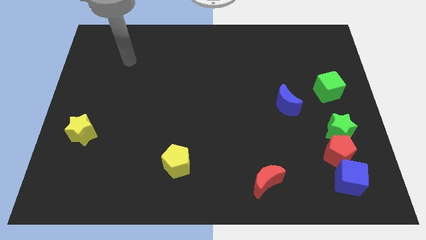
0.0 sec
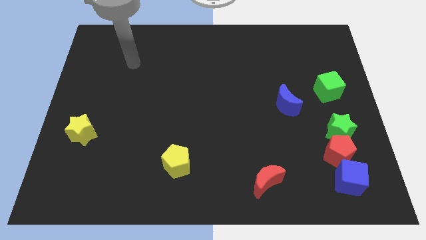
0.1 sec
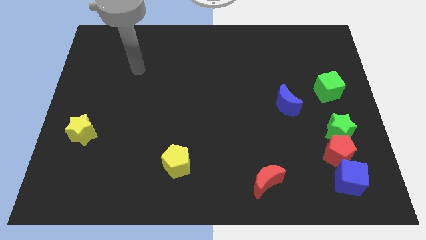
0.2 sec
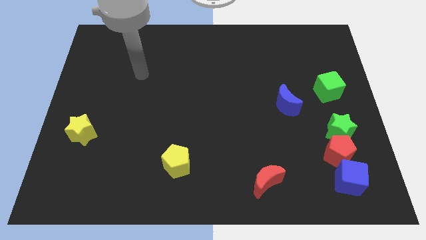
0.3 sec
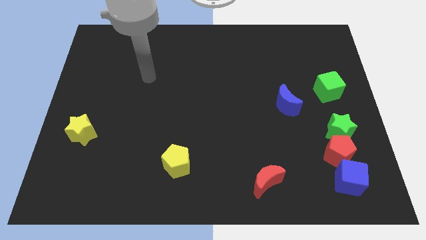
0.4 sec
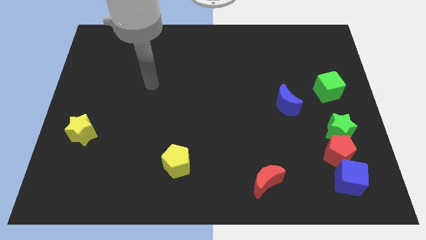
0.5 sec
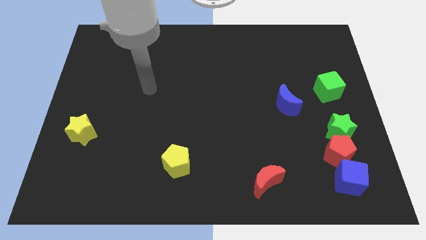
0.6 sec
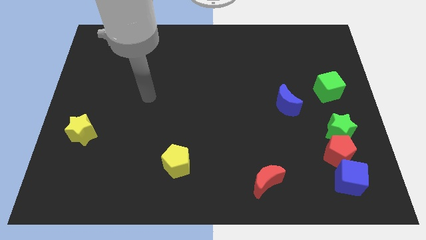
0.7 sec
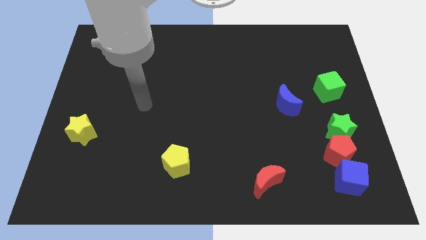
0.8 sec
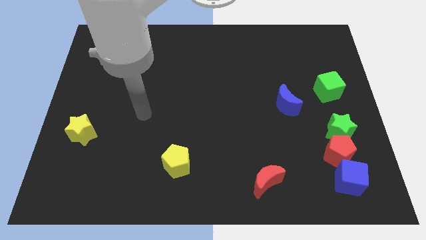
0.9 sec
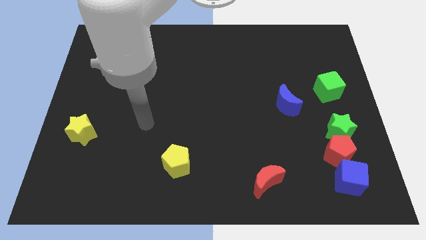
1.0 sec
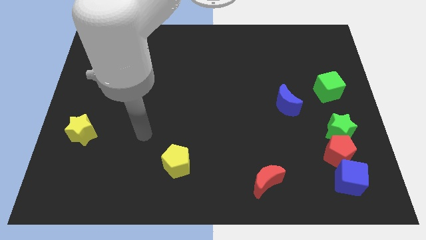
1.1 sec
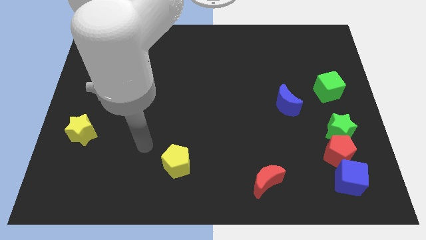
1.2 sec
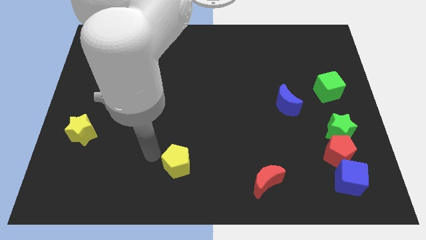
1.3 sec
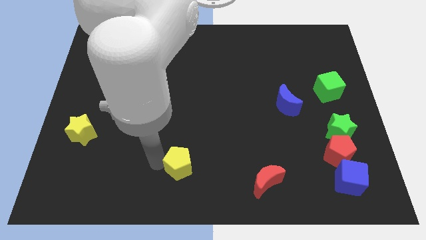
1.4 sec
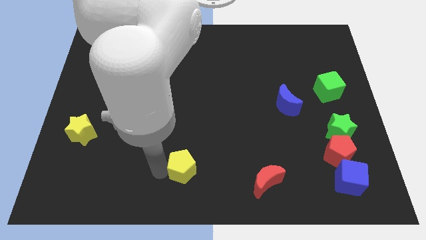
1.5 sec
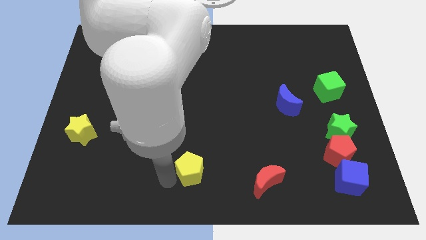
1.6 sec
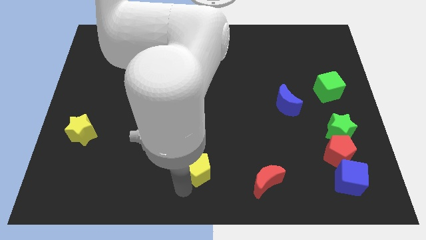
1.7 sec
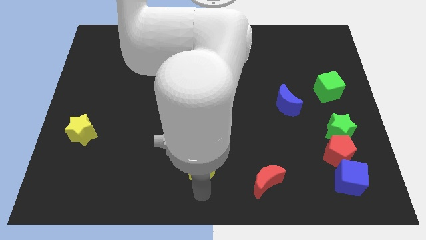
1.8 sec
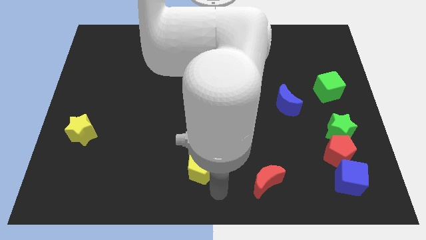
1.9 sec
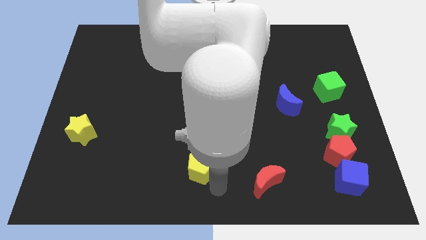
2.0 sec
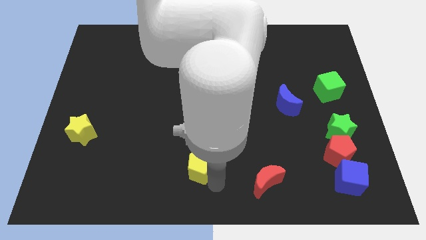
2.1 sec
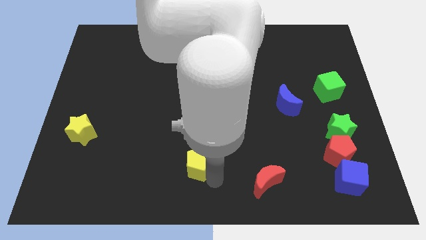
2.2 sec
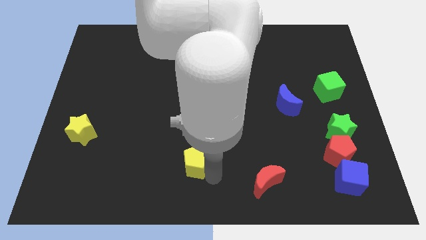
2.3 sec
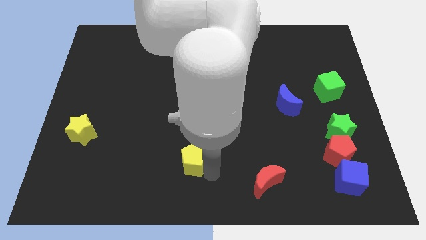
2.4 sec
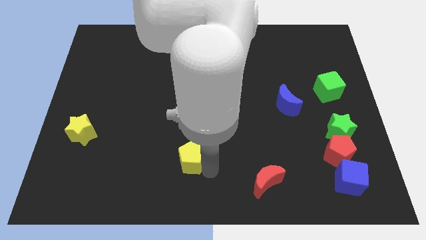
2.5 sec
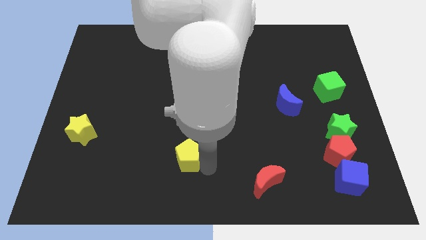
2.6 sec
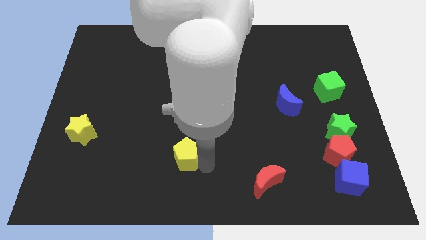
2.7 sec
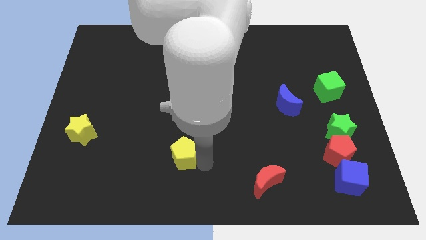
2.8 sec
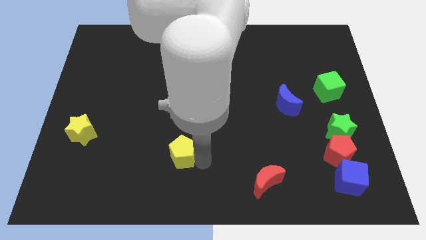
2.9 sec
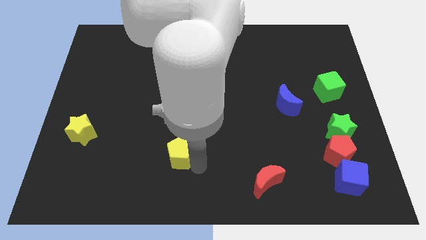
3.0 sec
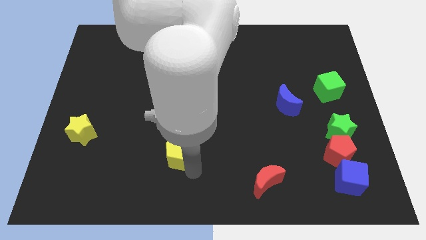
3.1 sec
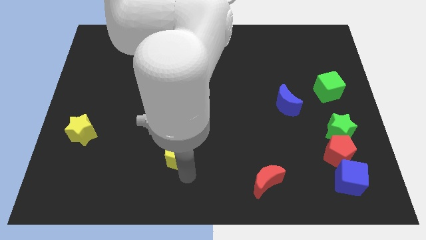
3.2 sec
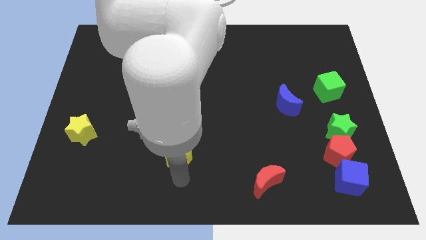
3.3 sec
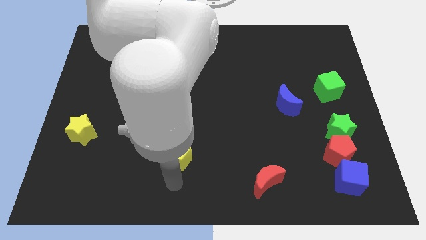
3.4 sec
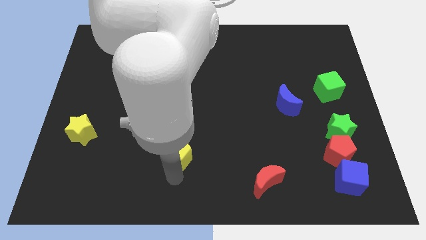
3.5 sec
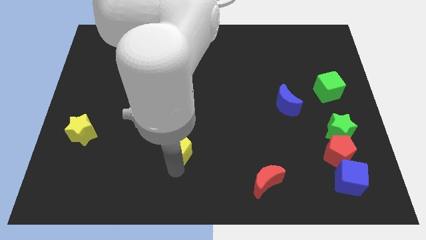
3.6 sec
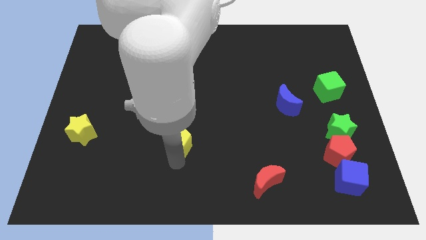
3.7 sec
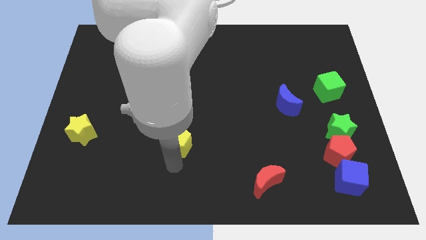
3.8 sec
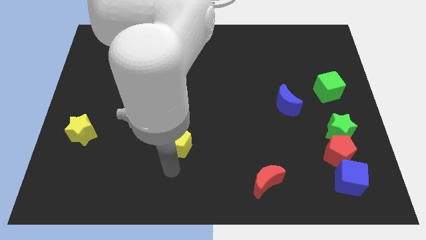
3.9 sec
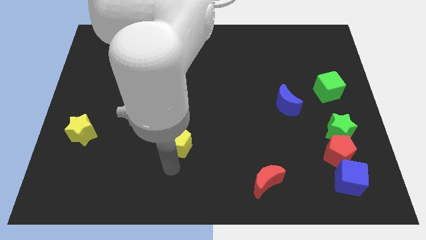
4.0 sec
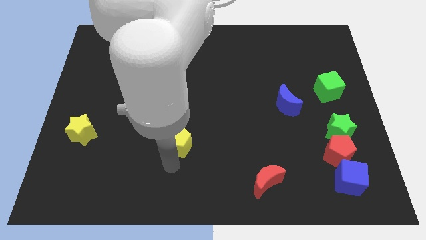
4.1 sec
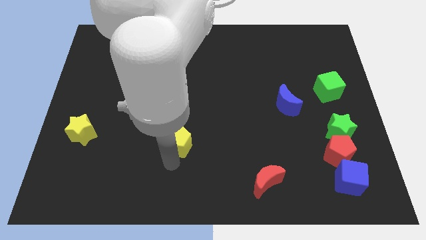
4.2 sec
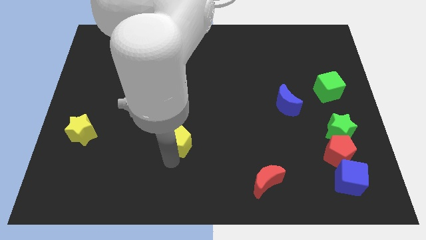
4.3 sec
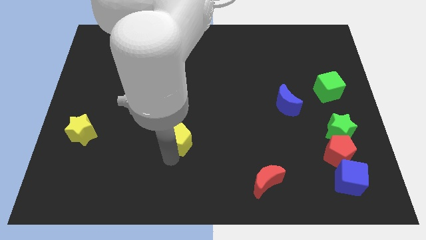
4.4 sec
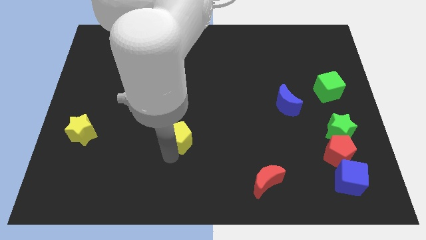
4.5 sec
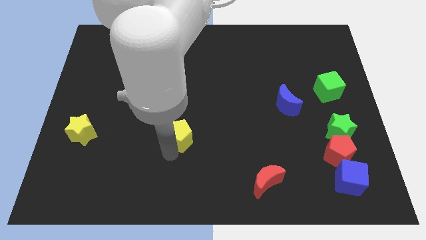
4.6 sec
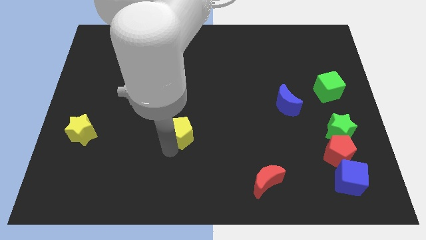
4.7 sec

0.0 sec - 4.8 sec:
push the yellow pentagon a bit upwards

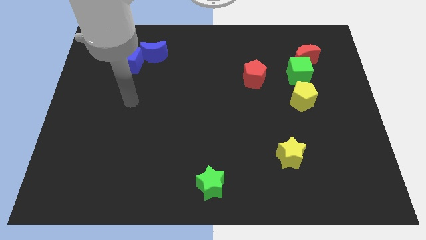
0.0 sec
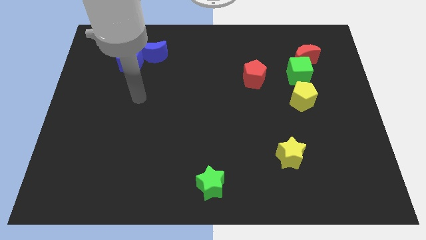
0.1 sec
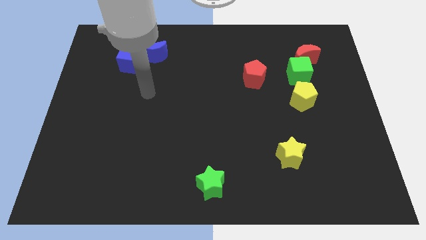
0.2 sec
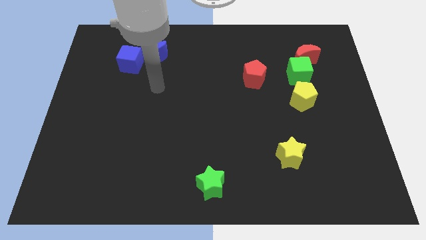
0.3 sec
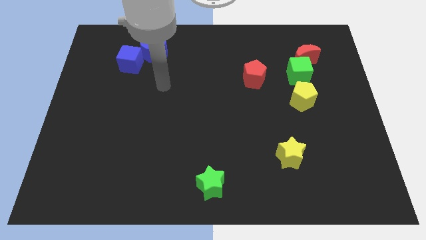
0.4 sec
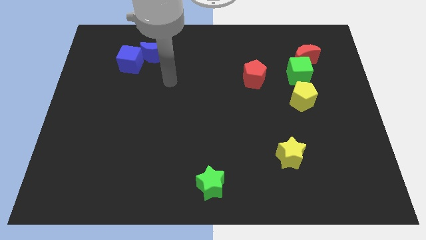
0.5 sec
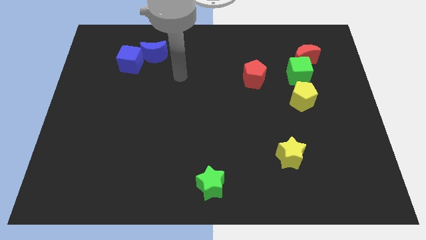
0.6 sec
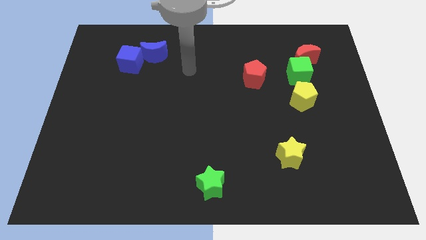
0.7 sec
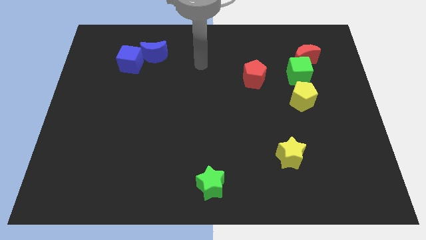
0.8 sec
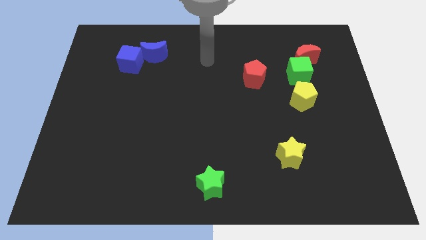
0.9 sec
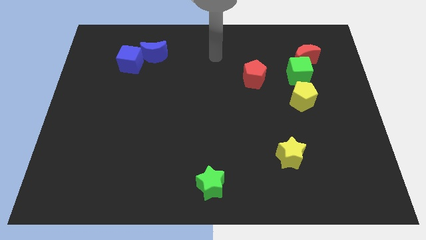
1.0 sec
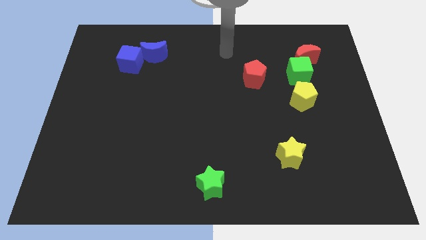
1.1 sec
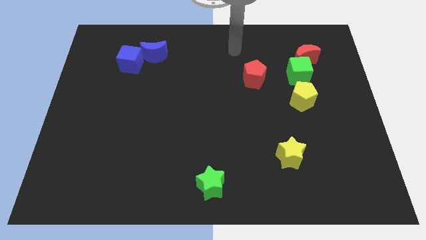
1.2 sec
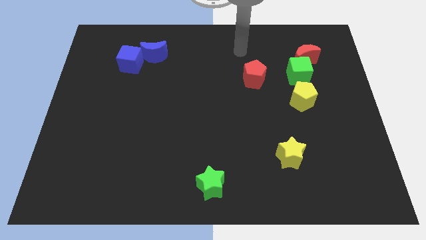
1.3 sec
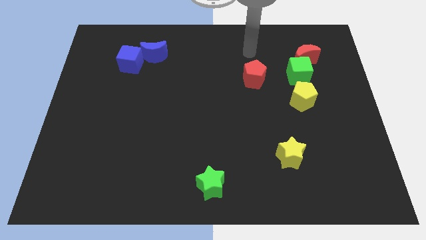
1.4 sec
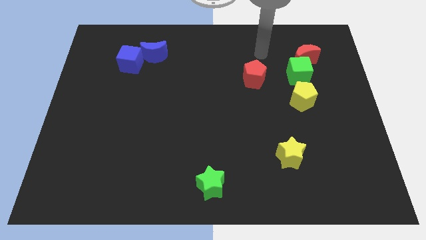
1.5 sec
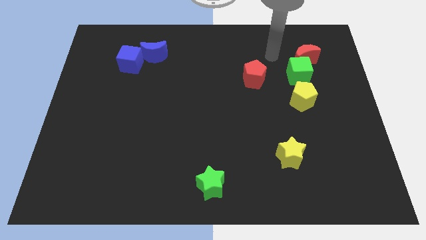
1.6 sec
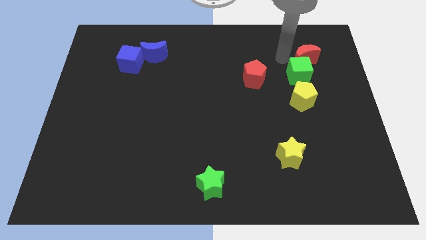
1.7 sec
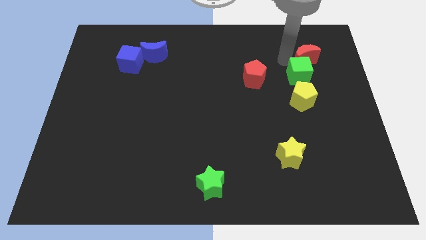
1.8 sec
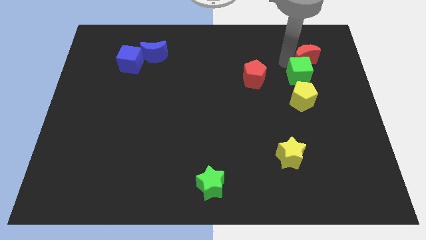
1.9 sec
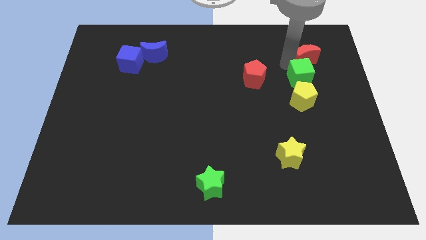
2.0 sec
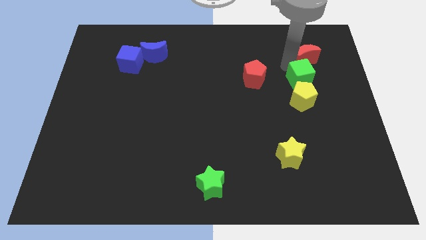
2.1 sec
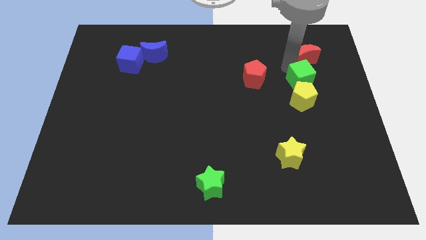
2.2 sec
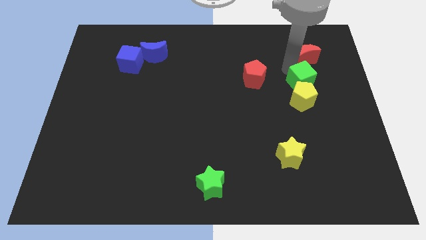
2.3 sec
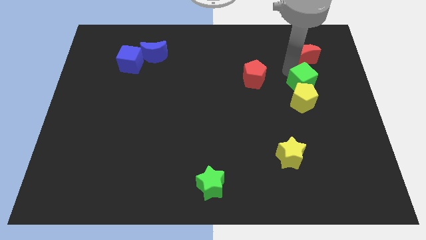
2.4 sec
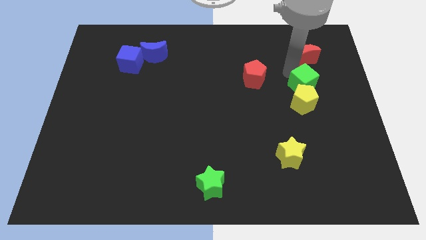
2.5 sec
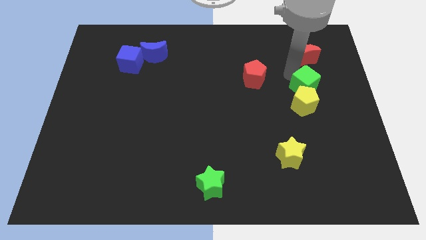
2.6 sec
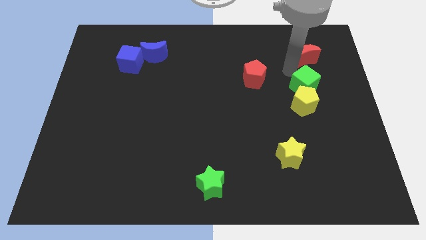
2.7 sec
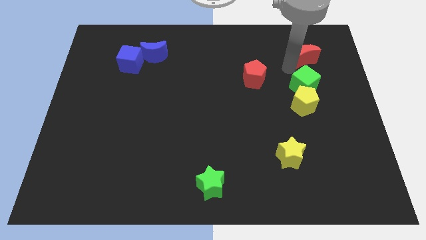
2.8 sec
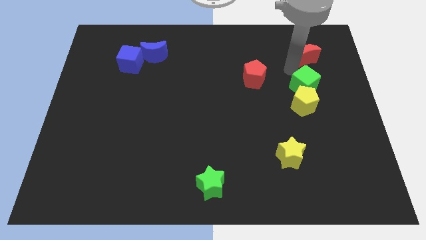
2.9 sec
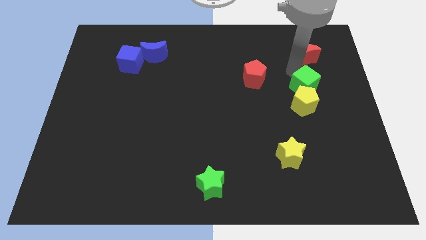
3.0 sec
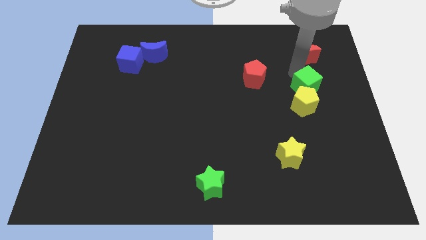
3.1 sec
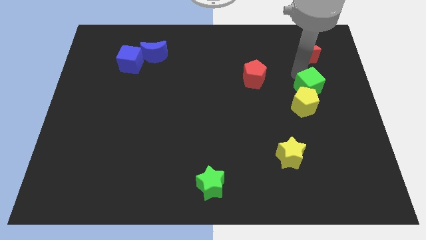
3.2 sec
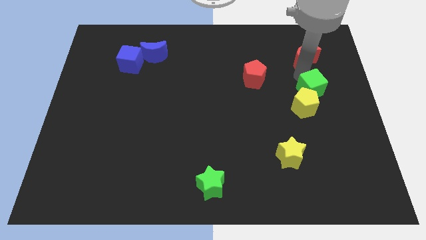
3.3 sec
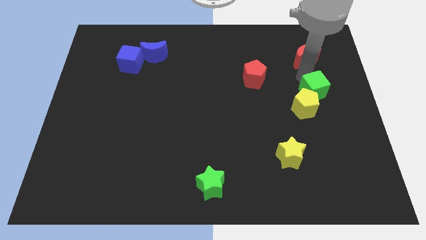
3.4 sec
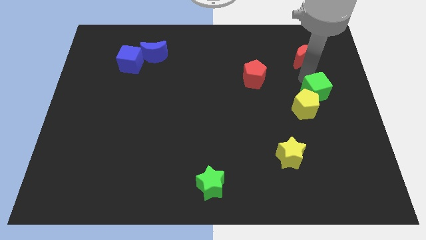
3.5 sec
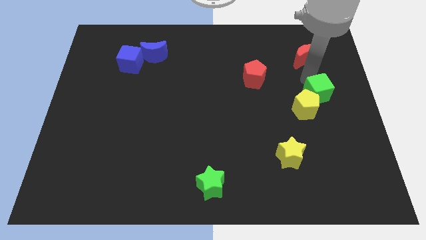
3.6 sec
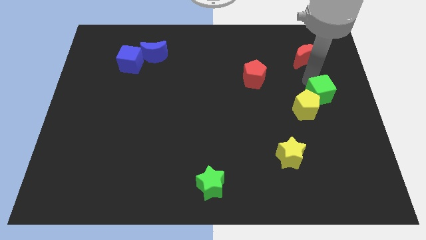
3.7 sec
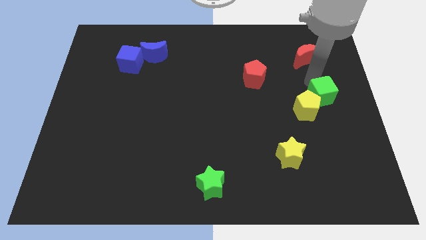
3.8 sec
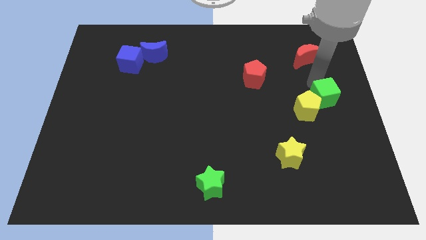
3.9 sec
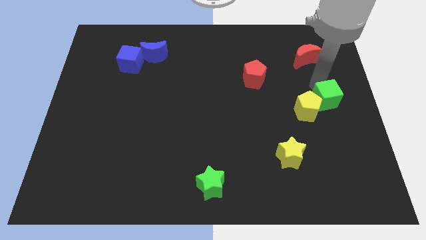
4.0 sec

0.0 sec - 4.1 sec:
move the green cube downwards a little bit
